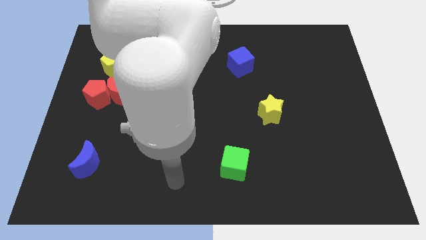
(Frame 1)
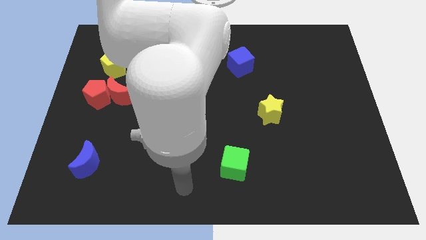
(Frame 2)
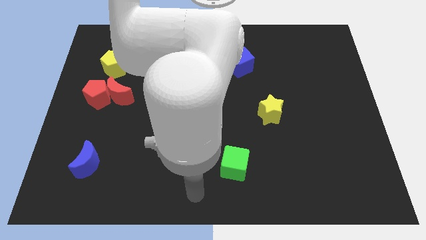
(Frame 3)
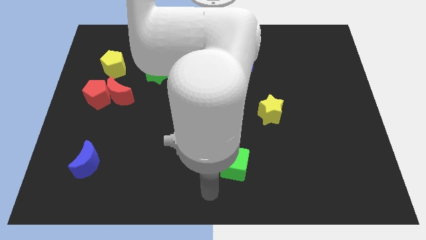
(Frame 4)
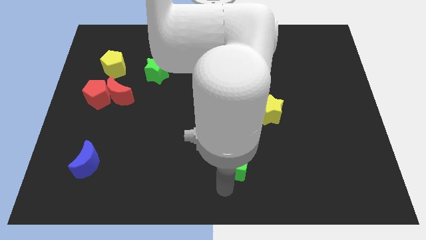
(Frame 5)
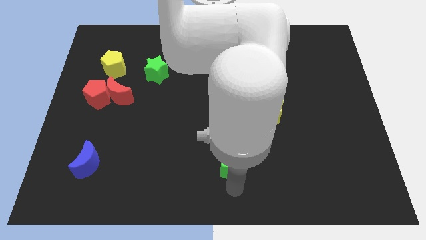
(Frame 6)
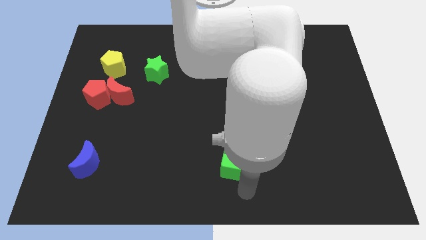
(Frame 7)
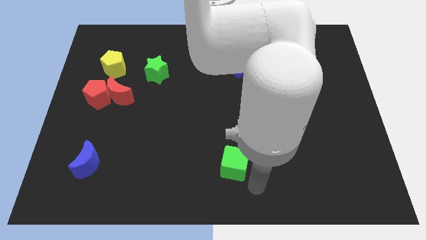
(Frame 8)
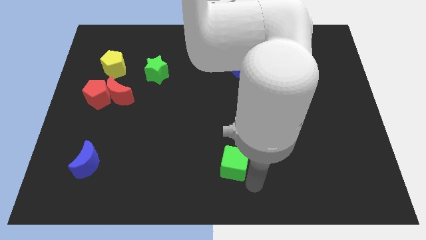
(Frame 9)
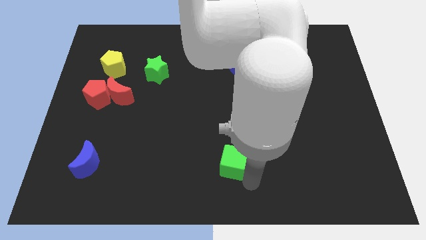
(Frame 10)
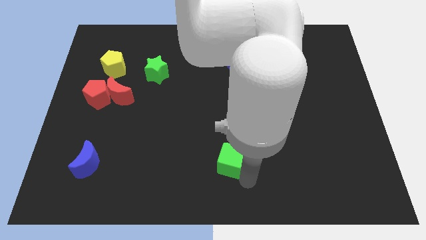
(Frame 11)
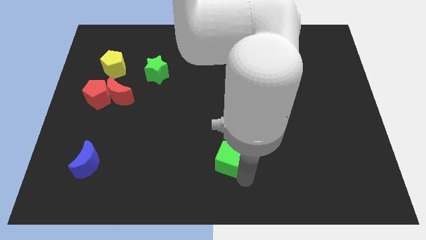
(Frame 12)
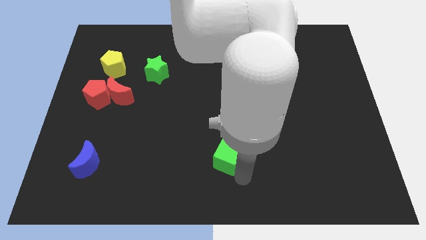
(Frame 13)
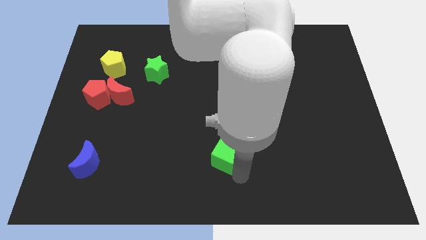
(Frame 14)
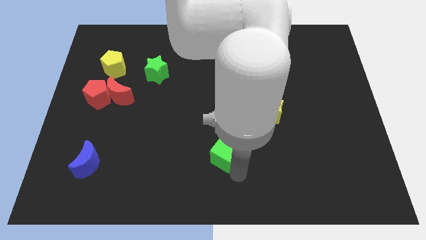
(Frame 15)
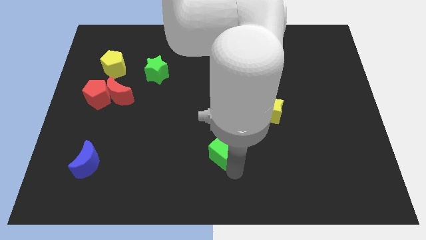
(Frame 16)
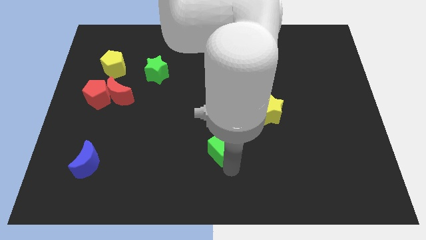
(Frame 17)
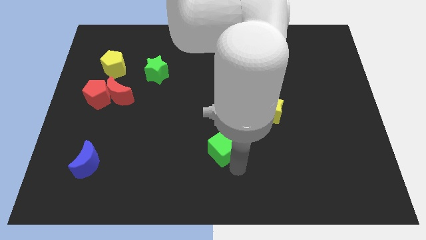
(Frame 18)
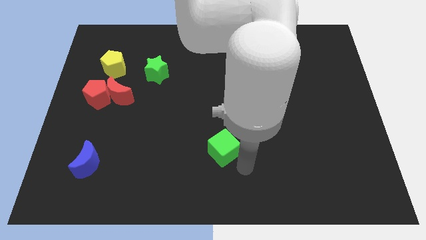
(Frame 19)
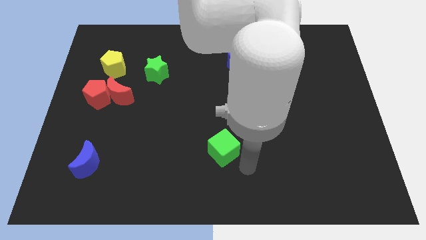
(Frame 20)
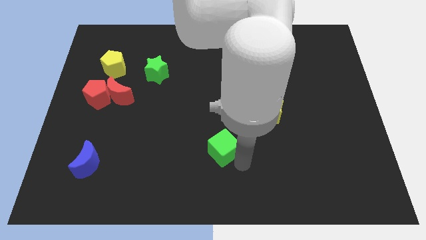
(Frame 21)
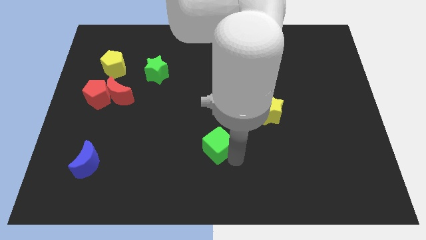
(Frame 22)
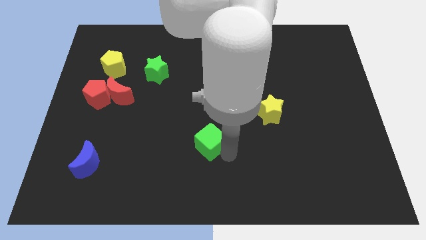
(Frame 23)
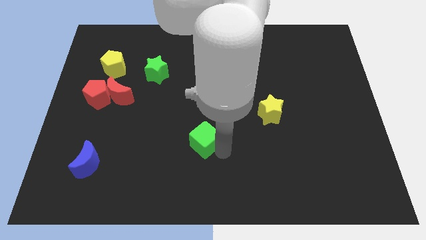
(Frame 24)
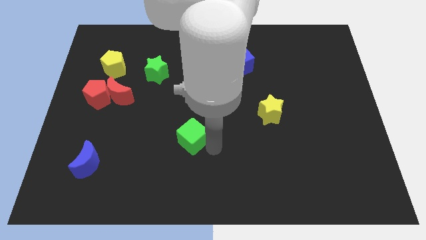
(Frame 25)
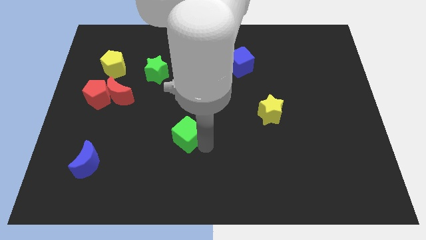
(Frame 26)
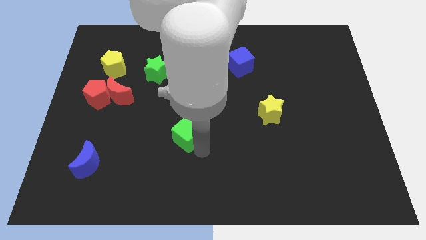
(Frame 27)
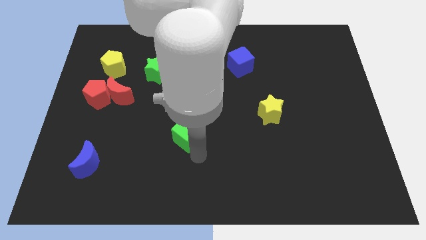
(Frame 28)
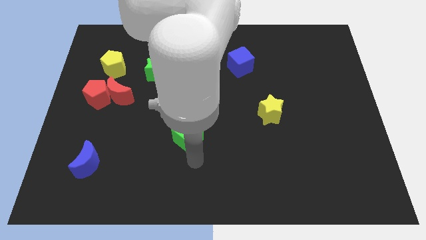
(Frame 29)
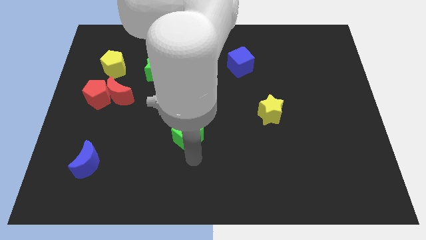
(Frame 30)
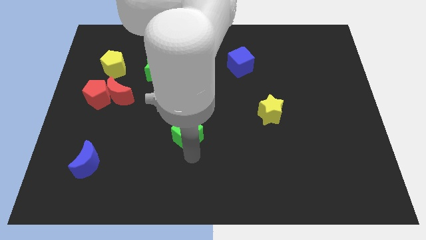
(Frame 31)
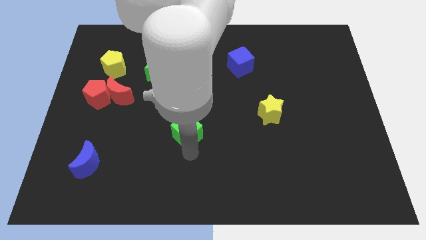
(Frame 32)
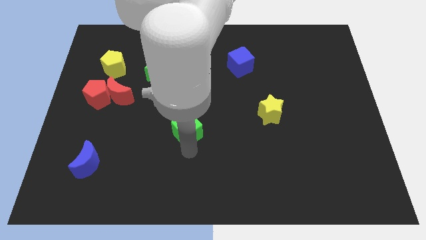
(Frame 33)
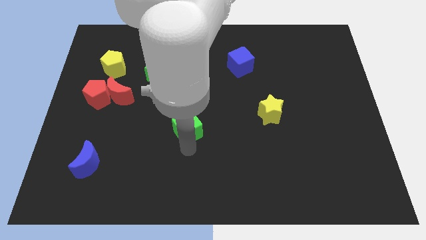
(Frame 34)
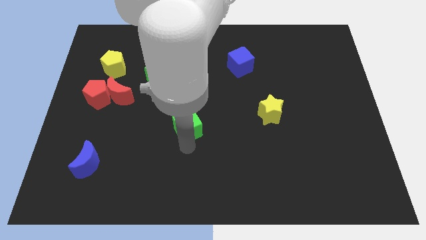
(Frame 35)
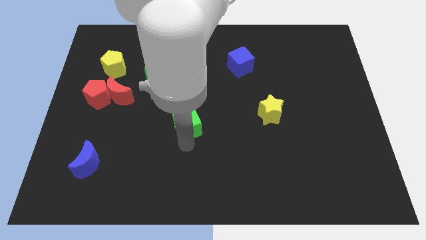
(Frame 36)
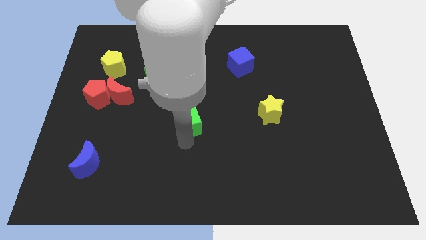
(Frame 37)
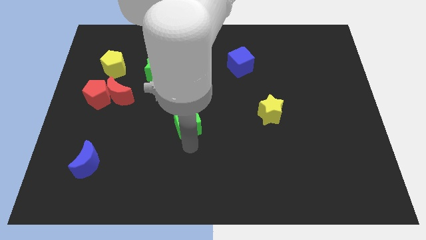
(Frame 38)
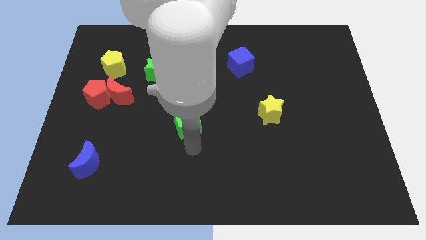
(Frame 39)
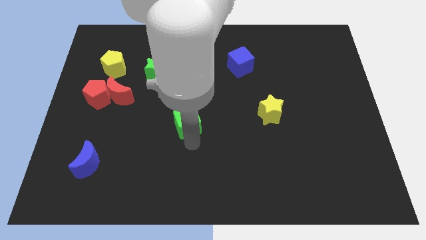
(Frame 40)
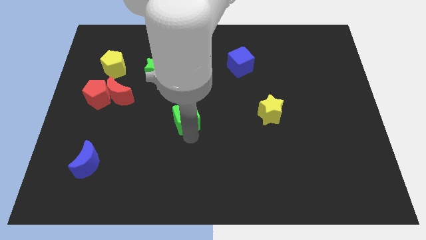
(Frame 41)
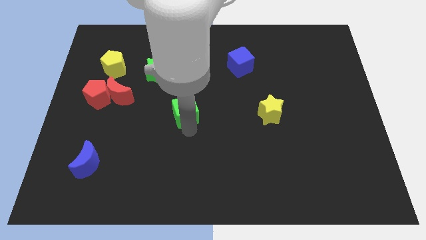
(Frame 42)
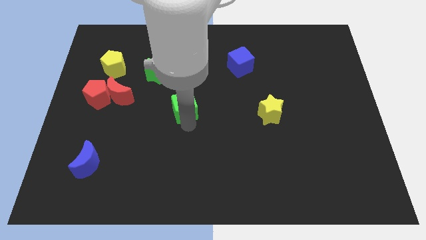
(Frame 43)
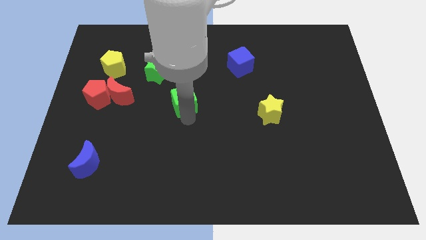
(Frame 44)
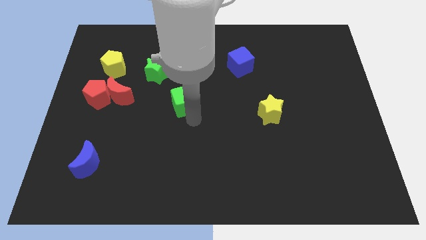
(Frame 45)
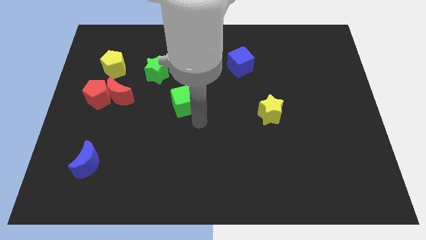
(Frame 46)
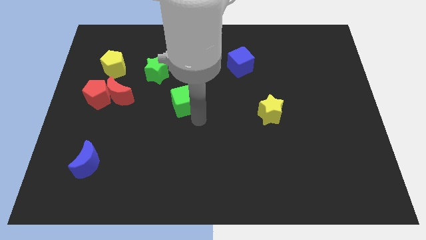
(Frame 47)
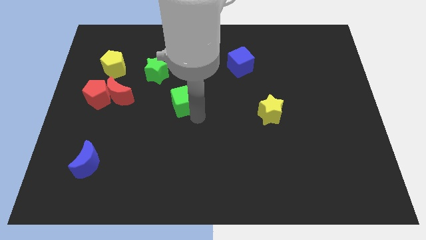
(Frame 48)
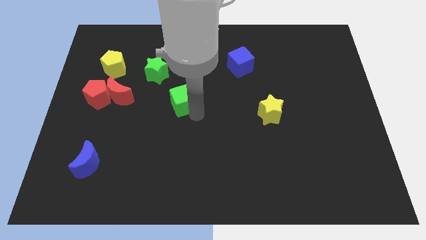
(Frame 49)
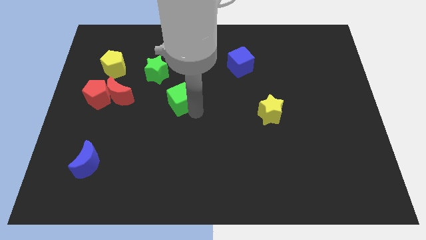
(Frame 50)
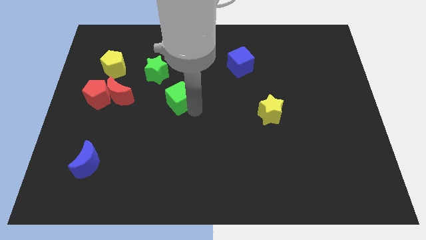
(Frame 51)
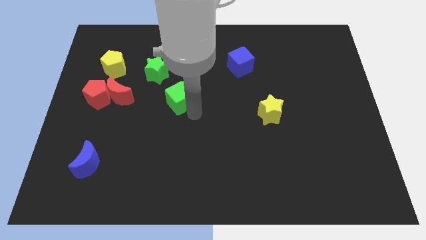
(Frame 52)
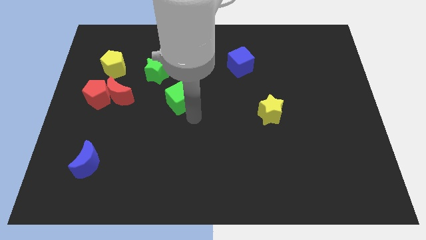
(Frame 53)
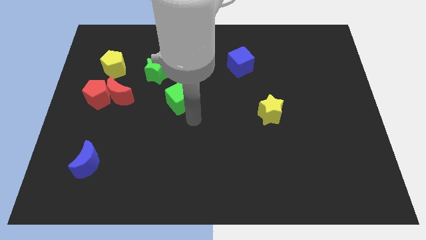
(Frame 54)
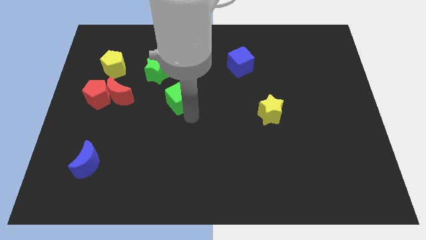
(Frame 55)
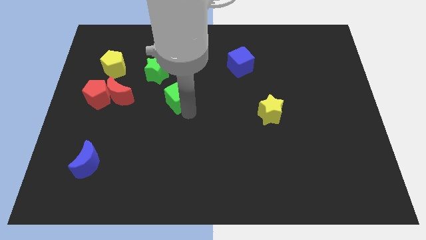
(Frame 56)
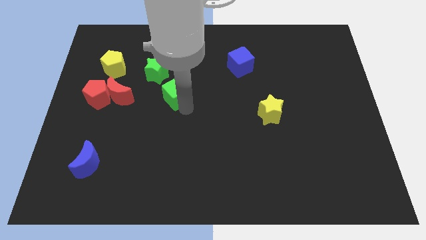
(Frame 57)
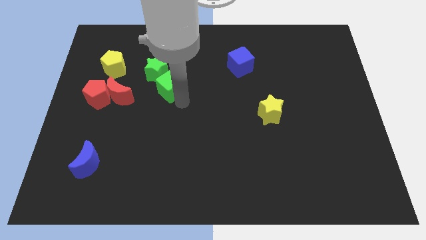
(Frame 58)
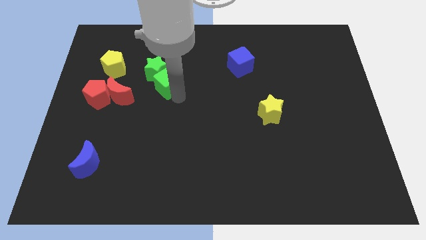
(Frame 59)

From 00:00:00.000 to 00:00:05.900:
move the green cube close to the green star
